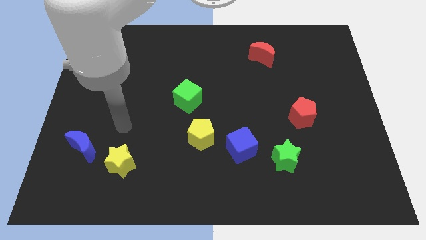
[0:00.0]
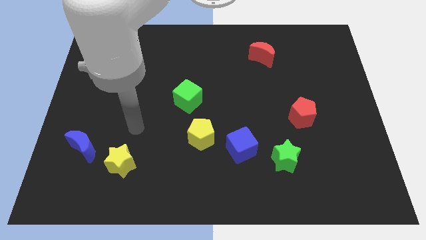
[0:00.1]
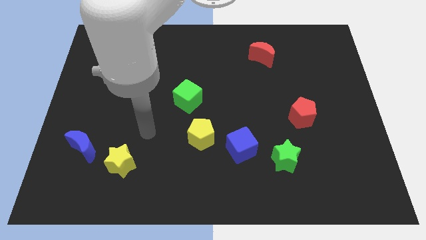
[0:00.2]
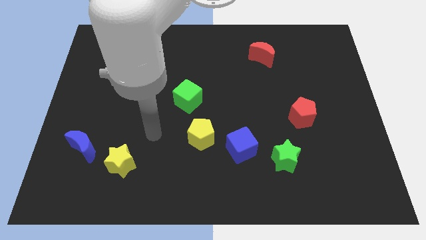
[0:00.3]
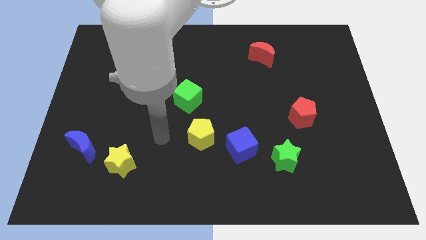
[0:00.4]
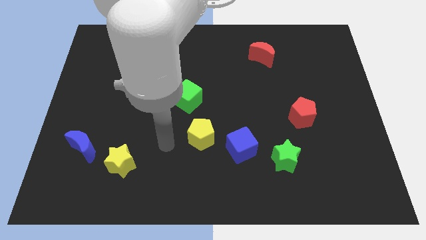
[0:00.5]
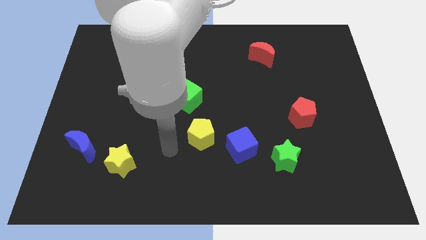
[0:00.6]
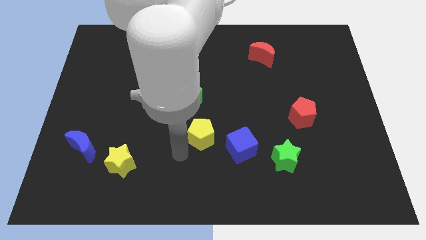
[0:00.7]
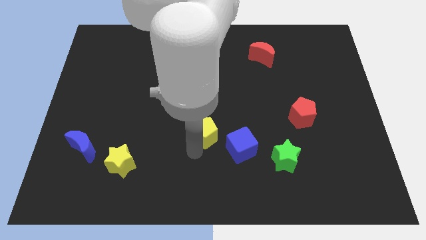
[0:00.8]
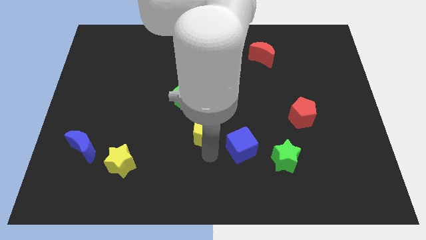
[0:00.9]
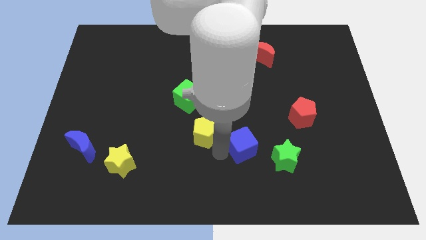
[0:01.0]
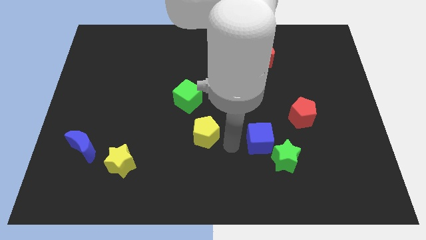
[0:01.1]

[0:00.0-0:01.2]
pull the yellow pentagon apart from the blue cube

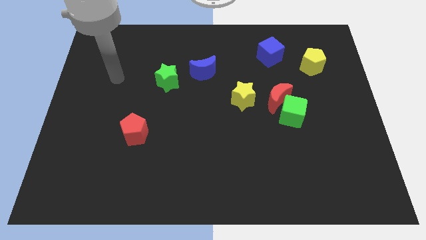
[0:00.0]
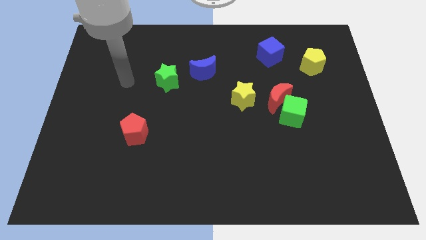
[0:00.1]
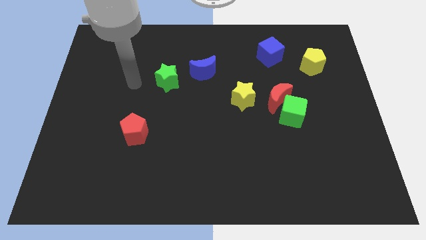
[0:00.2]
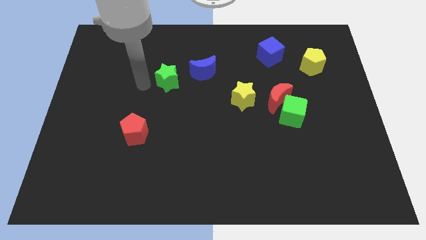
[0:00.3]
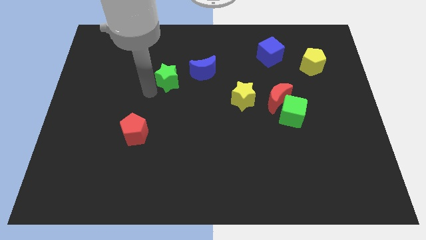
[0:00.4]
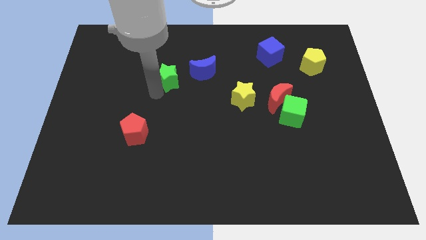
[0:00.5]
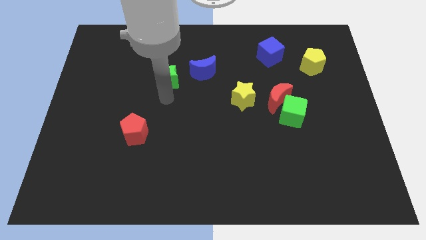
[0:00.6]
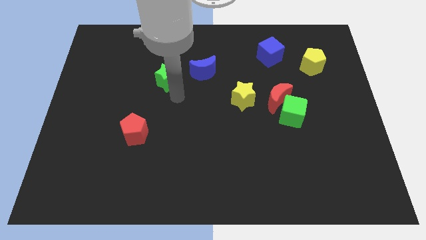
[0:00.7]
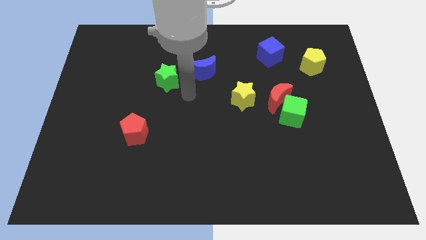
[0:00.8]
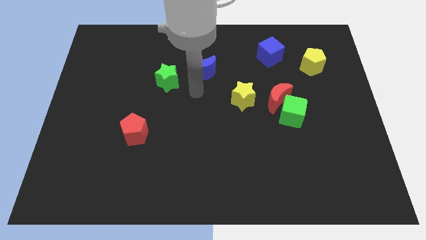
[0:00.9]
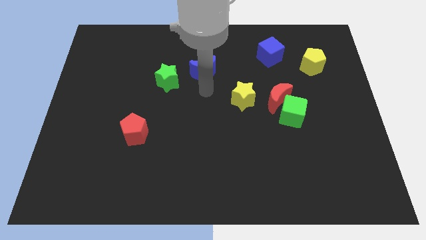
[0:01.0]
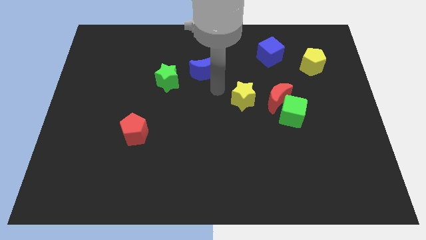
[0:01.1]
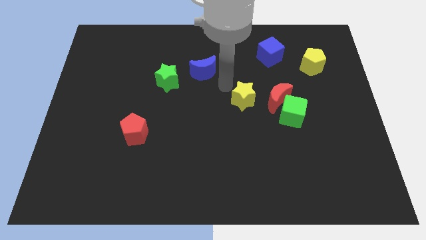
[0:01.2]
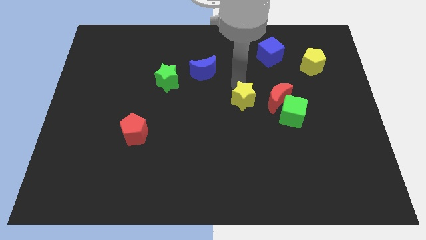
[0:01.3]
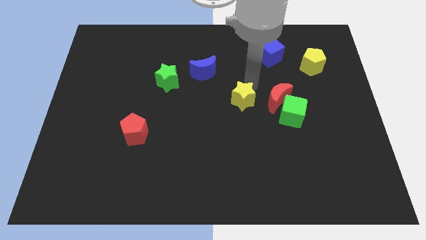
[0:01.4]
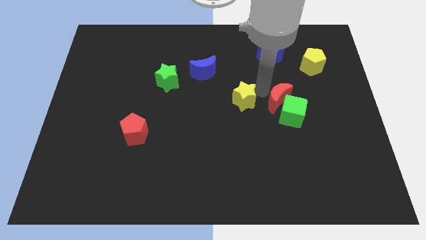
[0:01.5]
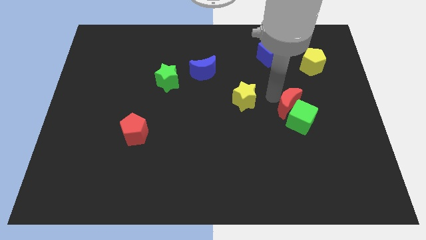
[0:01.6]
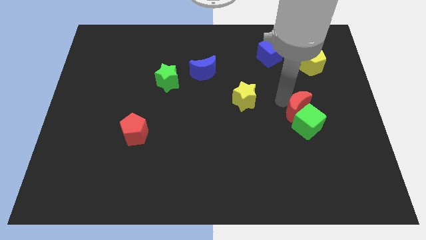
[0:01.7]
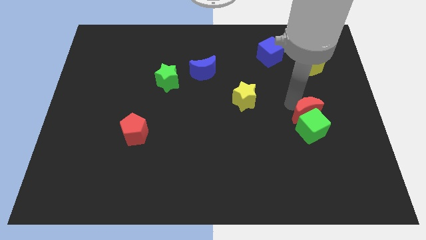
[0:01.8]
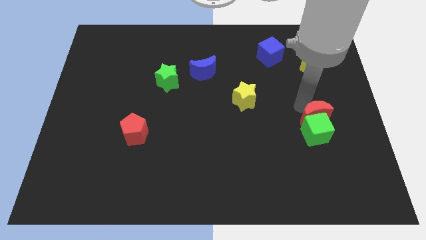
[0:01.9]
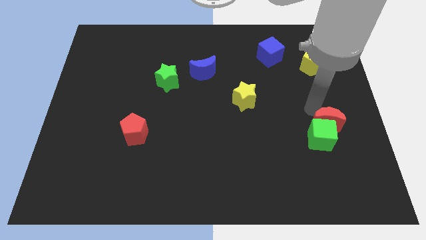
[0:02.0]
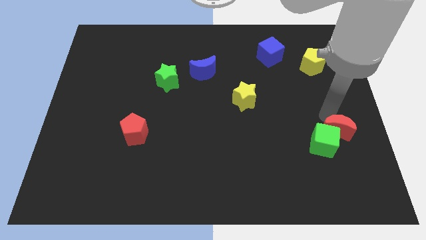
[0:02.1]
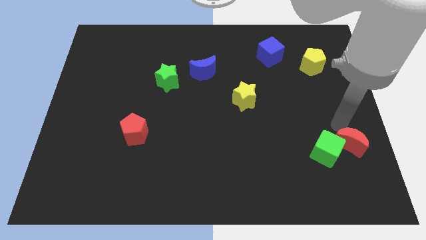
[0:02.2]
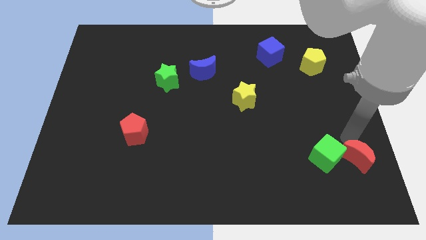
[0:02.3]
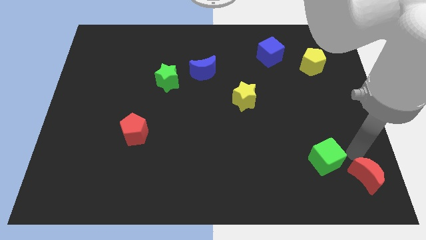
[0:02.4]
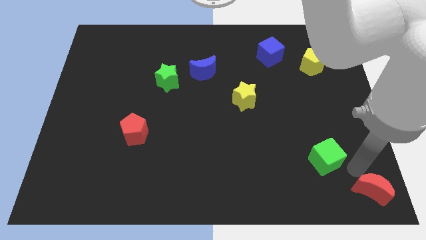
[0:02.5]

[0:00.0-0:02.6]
separate the green cube from the red moon

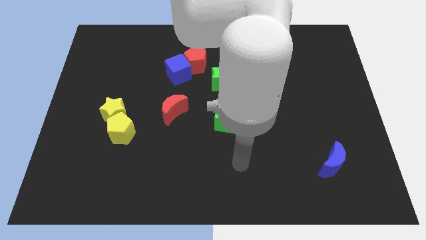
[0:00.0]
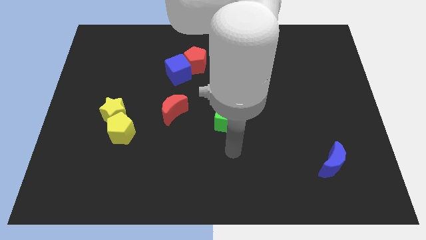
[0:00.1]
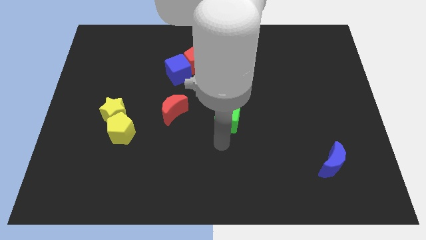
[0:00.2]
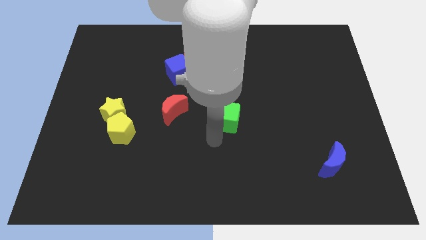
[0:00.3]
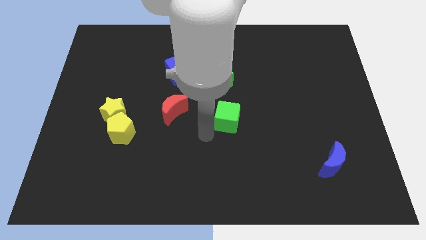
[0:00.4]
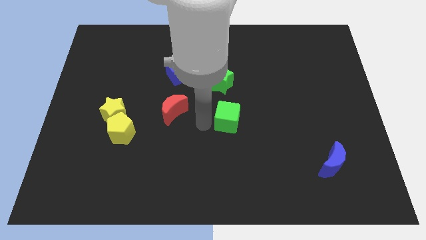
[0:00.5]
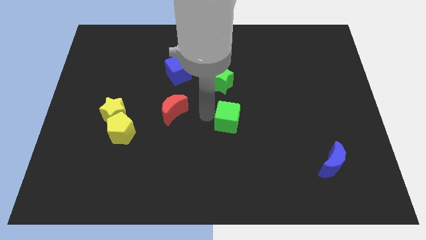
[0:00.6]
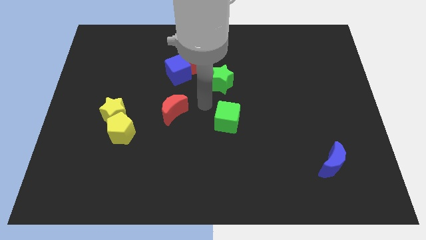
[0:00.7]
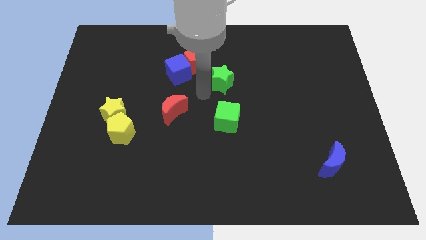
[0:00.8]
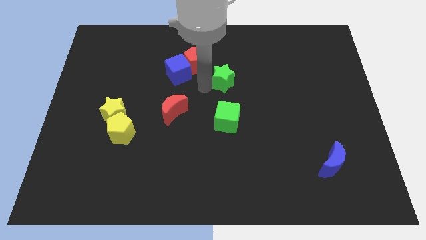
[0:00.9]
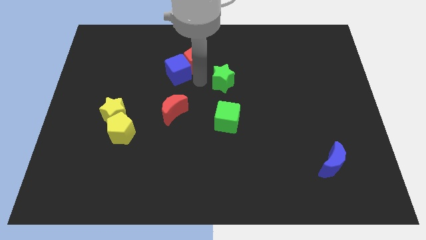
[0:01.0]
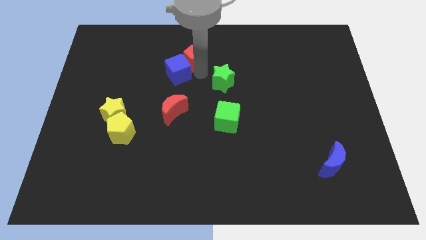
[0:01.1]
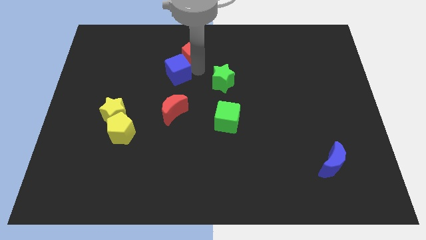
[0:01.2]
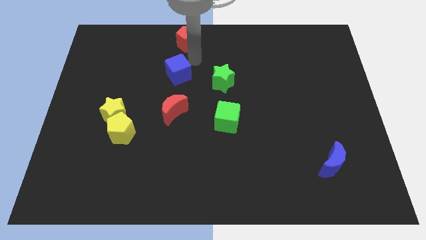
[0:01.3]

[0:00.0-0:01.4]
separate the blue cube from the red pentagon

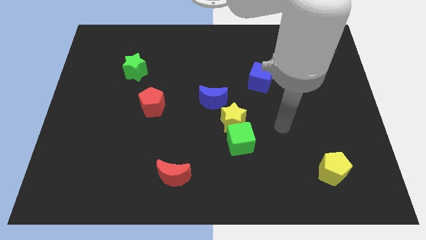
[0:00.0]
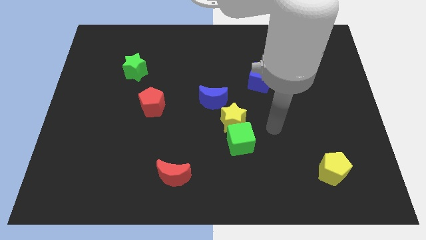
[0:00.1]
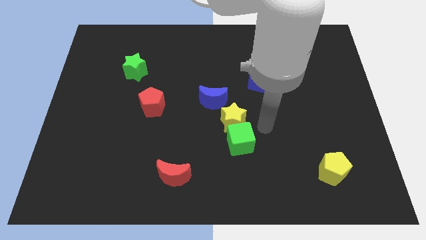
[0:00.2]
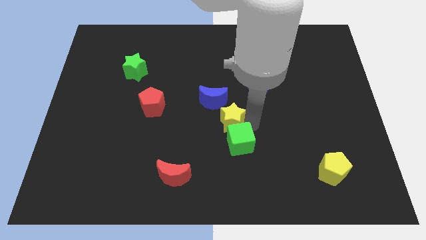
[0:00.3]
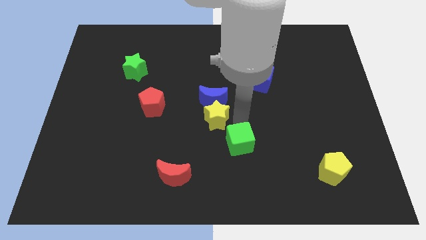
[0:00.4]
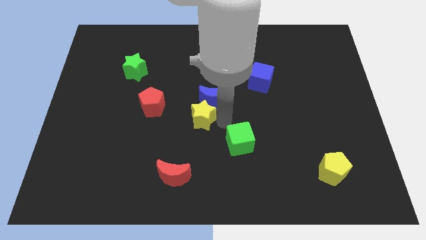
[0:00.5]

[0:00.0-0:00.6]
pull the green cube apart from the yellow star

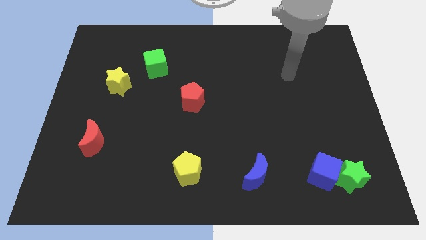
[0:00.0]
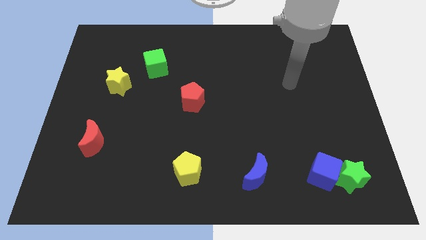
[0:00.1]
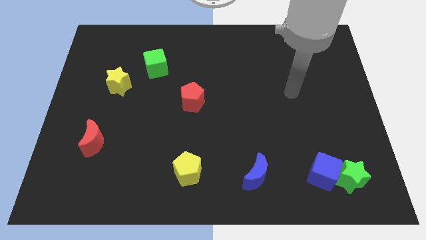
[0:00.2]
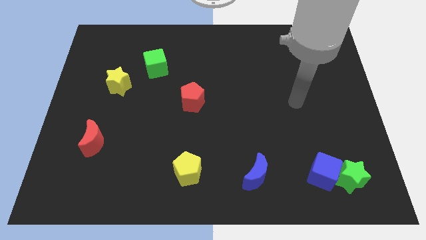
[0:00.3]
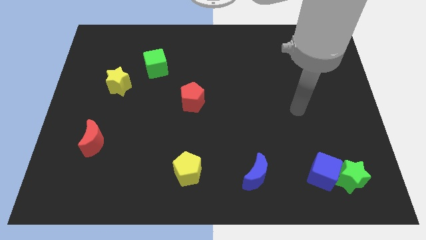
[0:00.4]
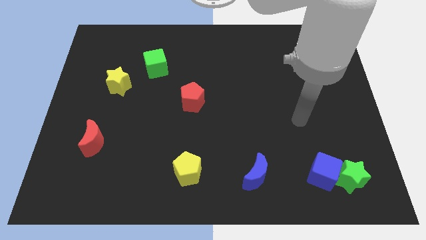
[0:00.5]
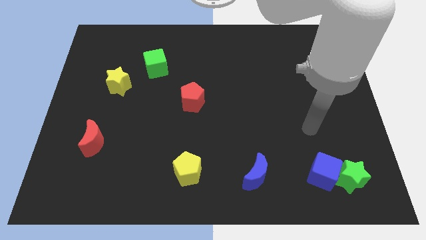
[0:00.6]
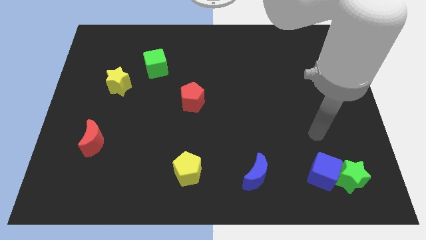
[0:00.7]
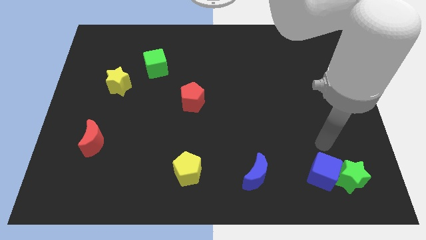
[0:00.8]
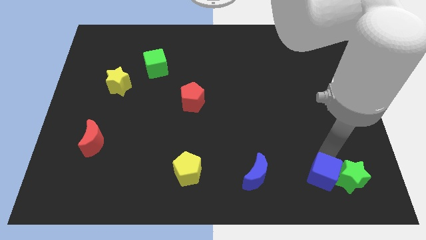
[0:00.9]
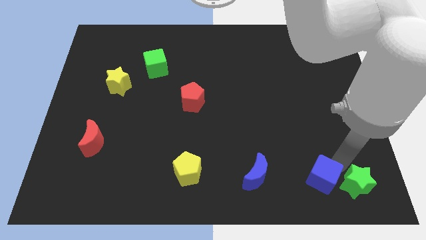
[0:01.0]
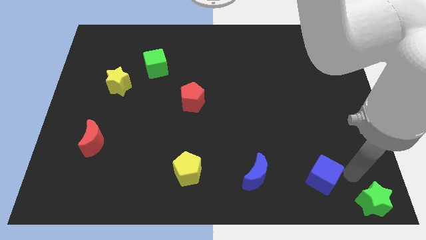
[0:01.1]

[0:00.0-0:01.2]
pull the blue cube apart from the green star

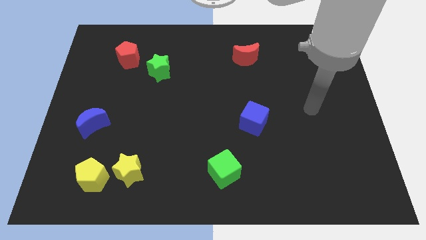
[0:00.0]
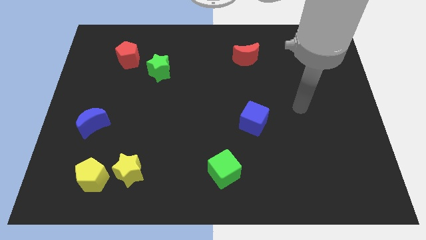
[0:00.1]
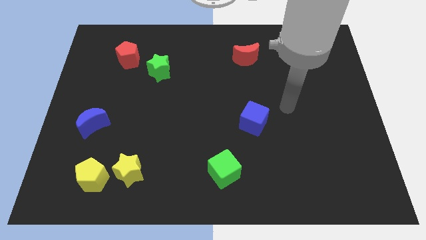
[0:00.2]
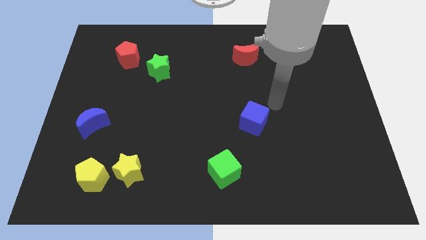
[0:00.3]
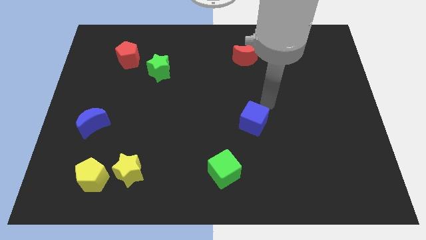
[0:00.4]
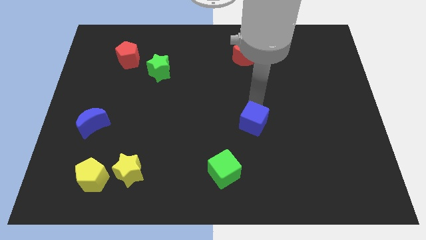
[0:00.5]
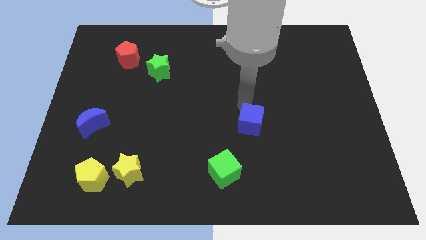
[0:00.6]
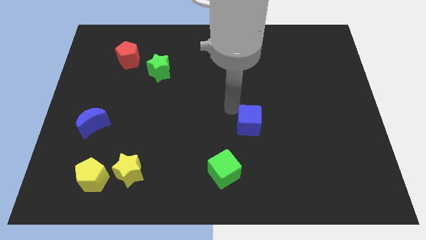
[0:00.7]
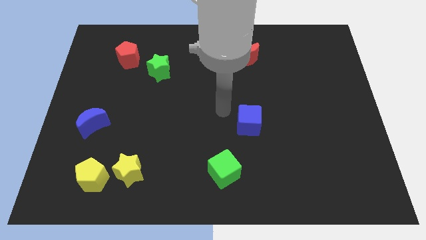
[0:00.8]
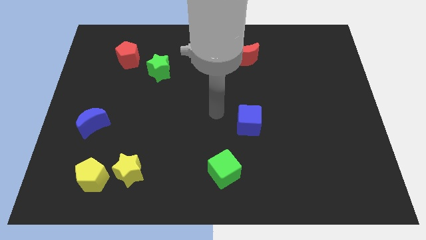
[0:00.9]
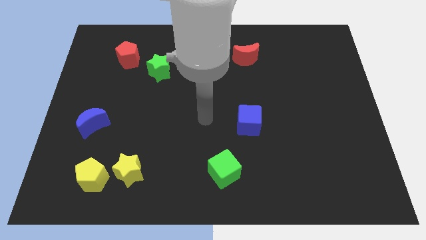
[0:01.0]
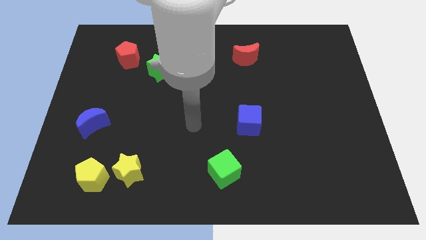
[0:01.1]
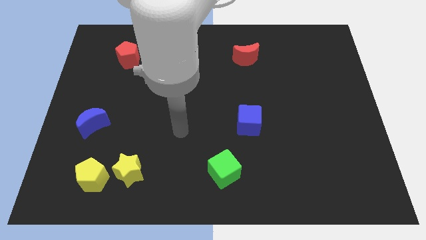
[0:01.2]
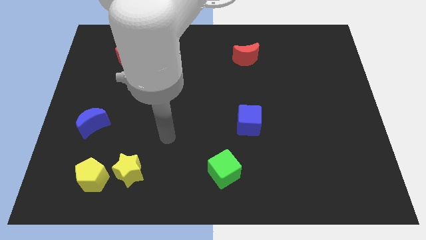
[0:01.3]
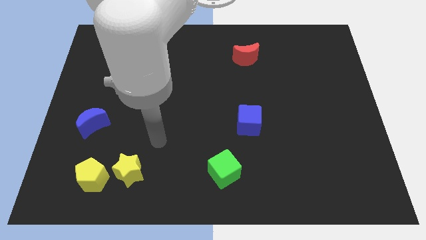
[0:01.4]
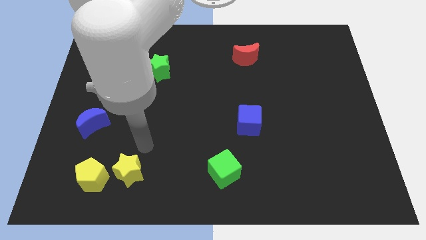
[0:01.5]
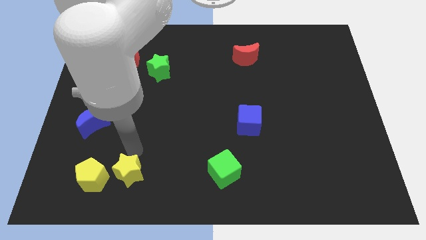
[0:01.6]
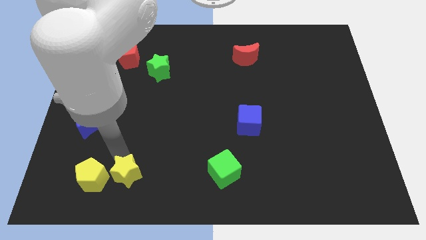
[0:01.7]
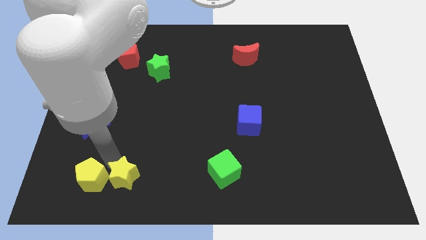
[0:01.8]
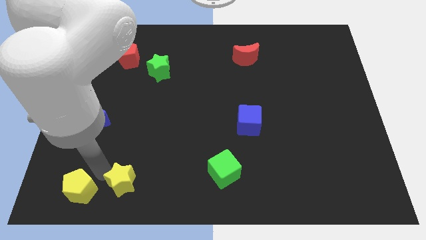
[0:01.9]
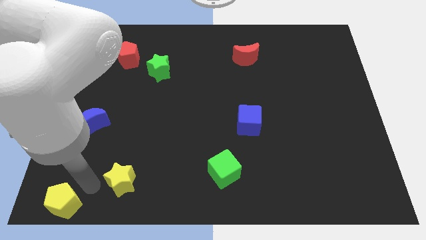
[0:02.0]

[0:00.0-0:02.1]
move the yellow star away from the yellow pentagon

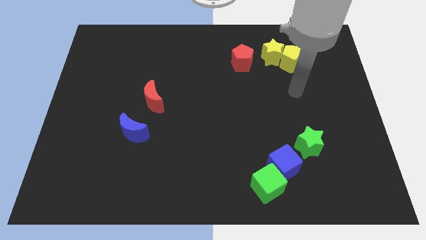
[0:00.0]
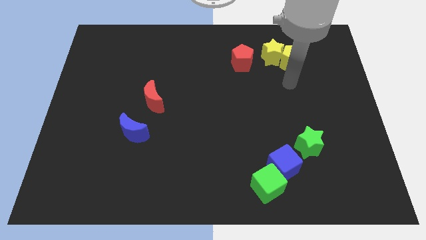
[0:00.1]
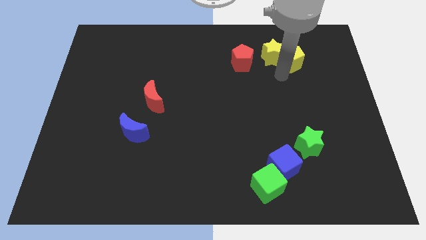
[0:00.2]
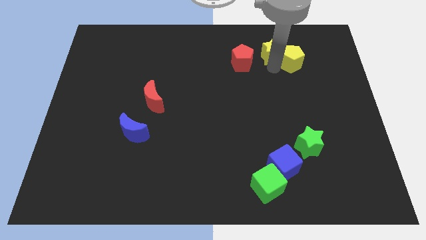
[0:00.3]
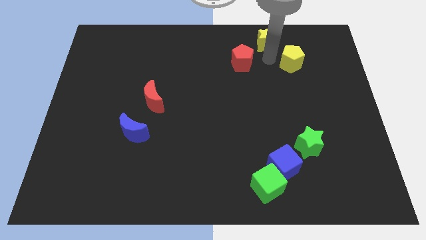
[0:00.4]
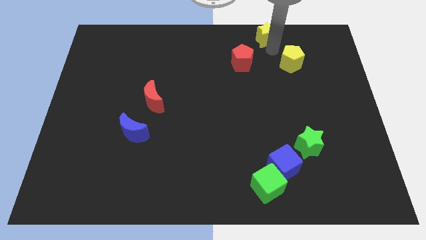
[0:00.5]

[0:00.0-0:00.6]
move the yellow pentagon away from the yellow star
